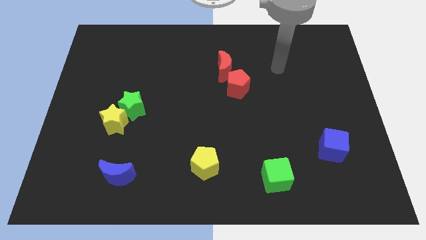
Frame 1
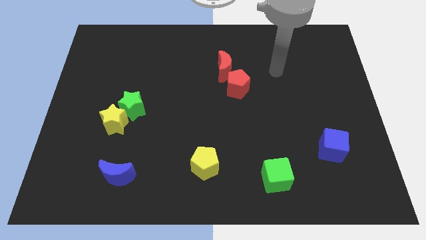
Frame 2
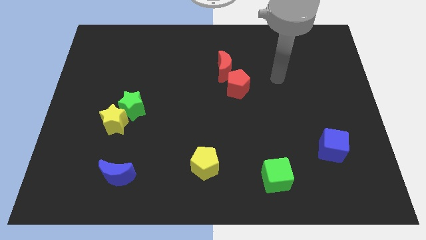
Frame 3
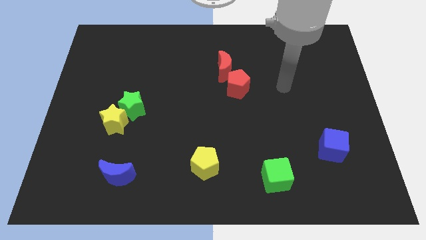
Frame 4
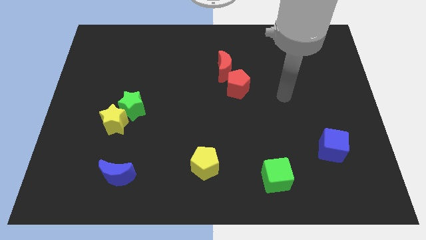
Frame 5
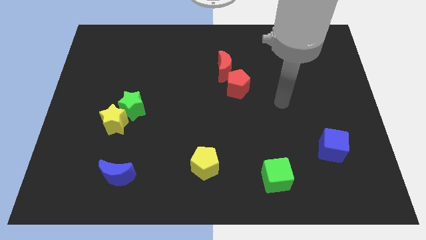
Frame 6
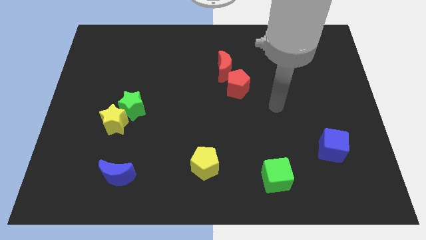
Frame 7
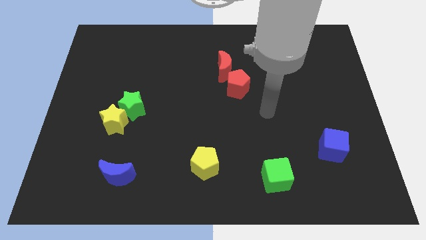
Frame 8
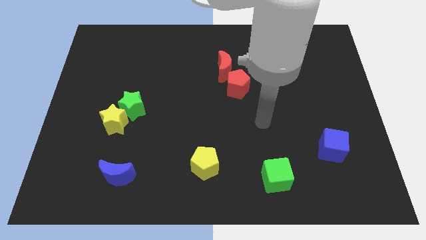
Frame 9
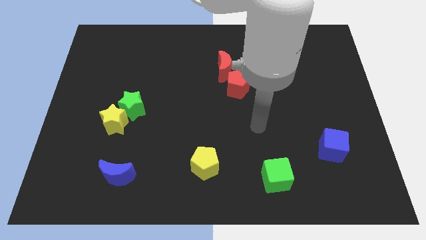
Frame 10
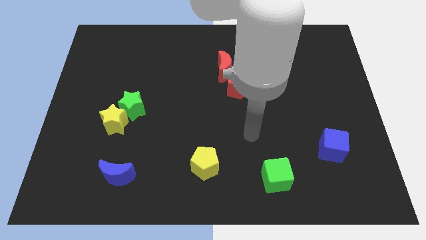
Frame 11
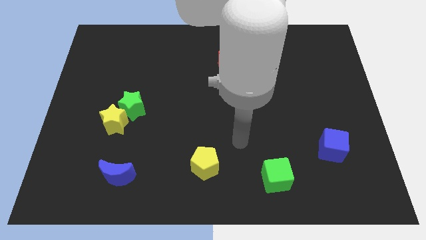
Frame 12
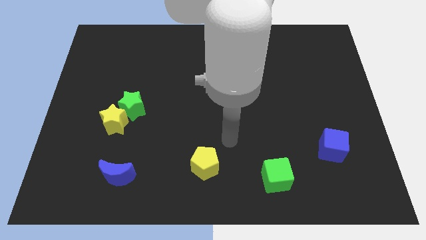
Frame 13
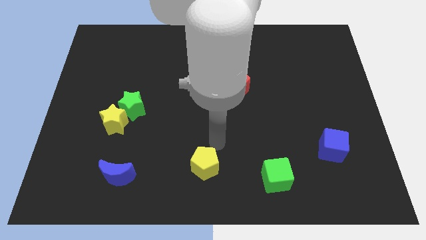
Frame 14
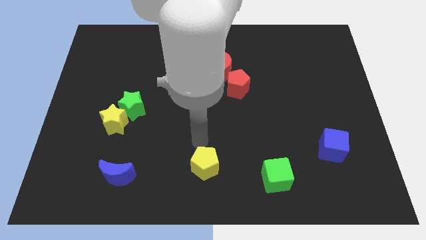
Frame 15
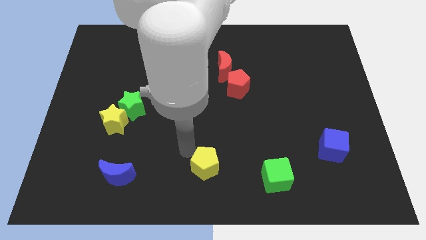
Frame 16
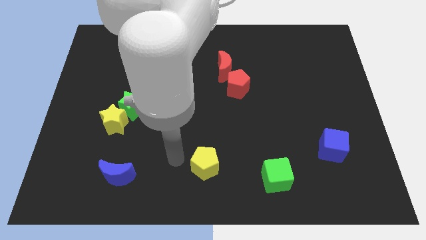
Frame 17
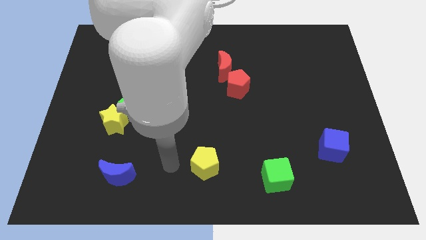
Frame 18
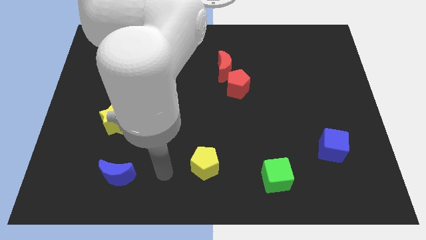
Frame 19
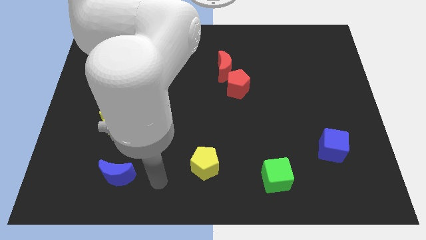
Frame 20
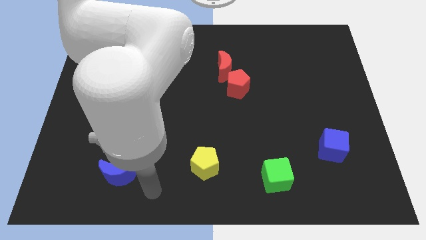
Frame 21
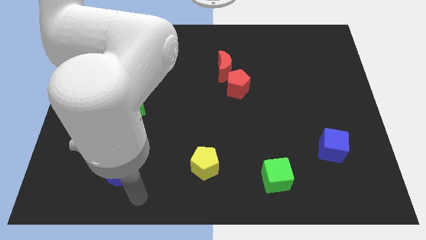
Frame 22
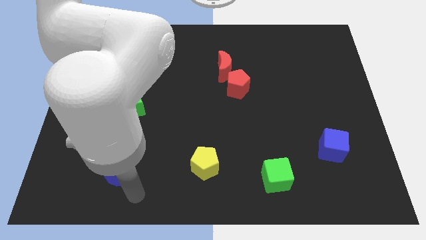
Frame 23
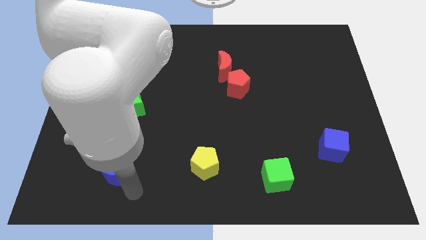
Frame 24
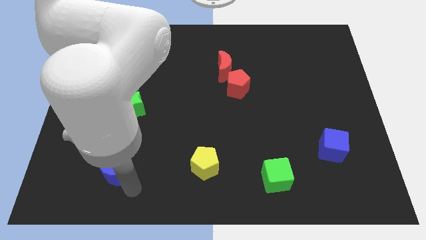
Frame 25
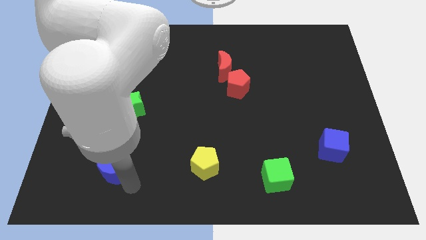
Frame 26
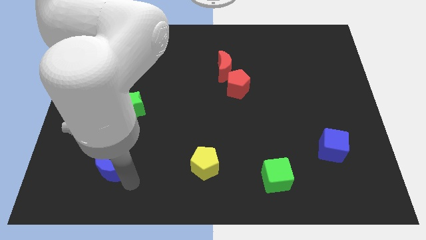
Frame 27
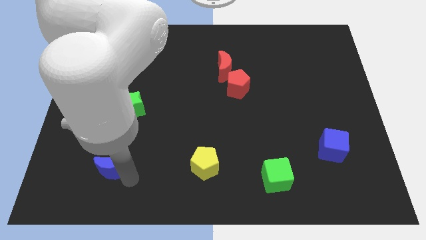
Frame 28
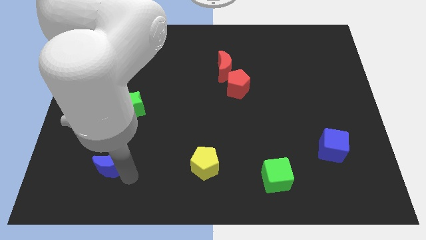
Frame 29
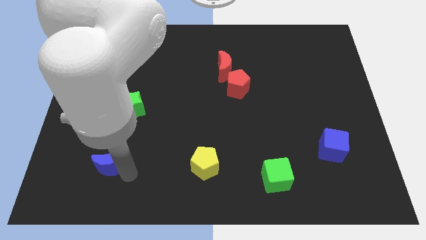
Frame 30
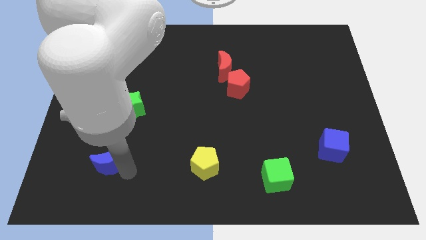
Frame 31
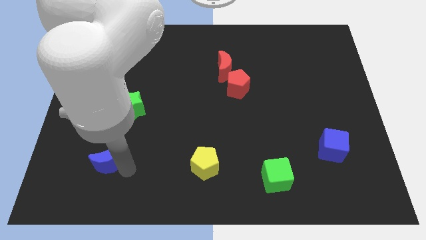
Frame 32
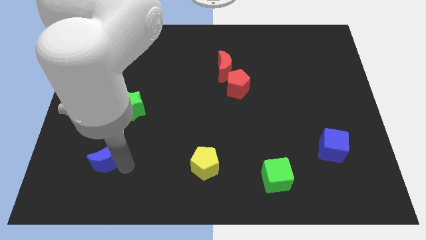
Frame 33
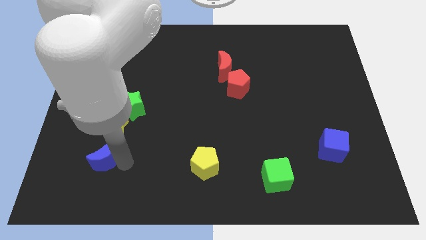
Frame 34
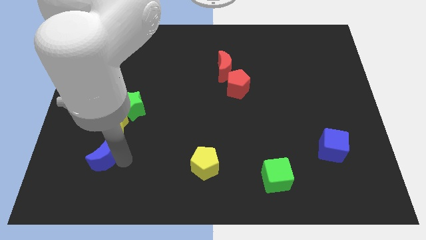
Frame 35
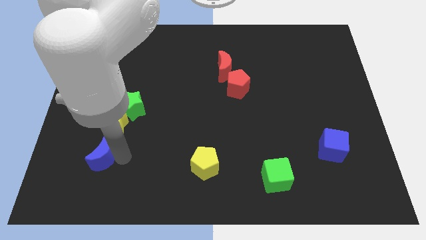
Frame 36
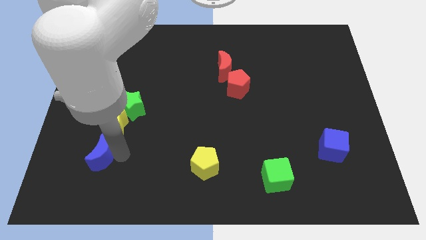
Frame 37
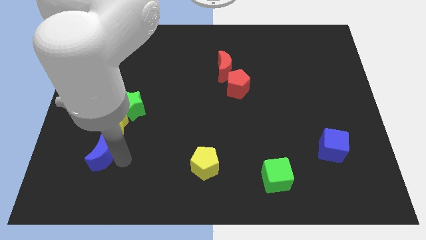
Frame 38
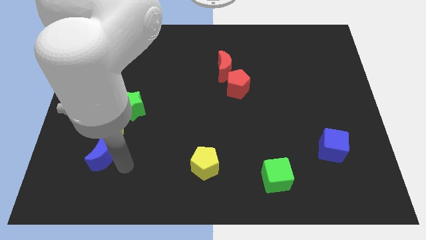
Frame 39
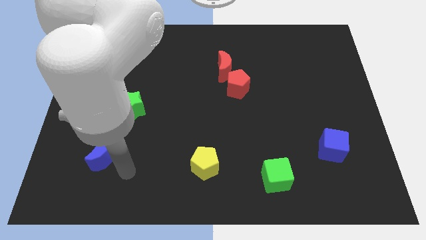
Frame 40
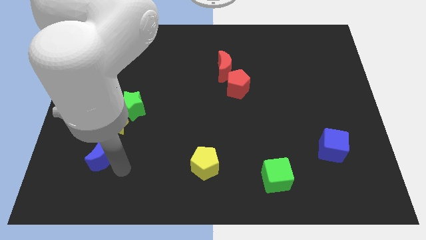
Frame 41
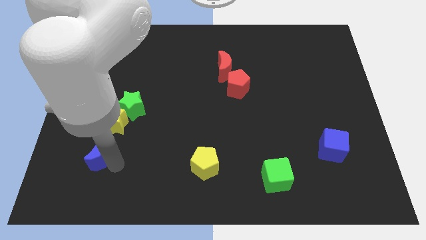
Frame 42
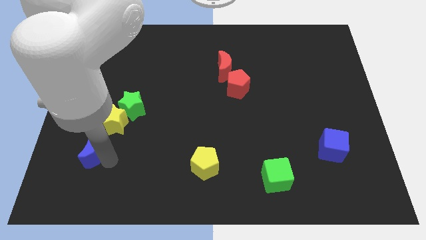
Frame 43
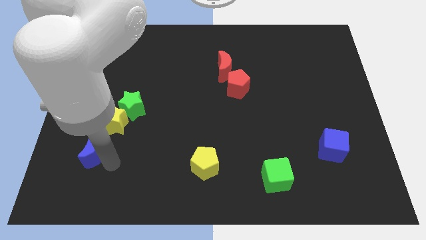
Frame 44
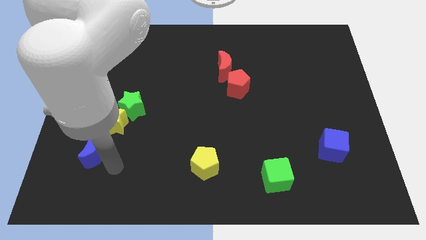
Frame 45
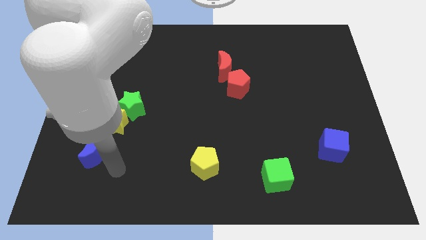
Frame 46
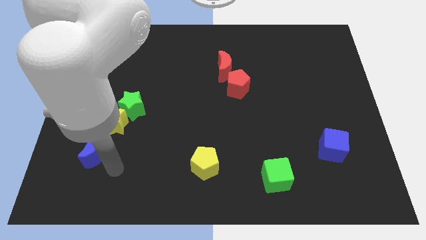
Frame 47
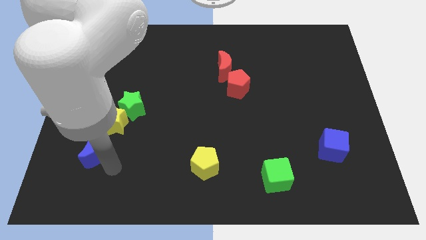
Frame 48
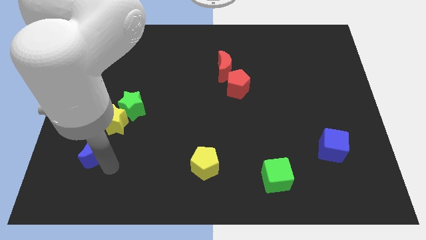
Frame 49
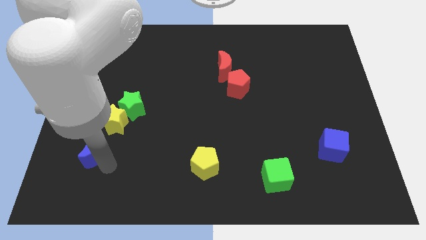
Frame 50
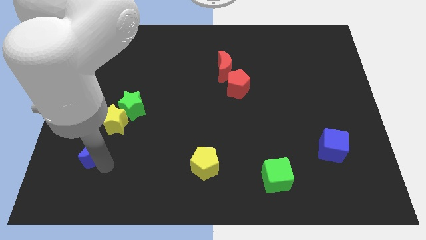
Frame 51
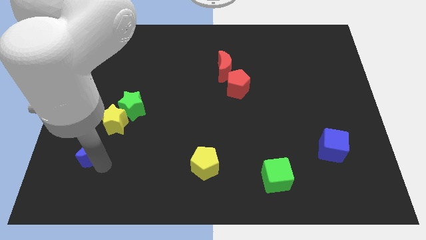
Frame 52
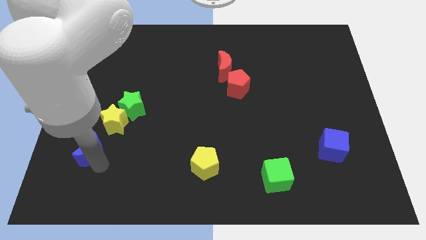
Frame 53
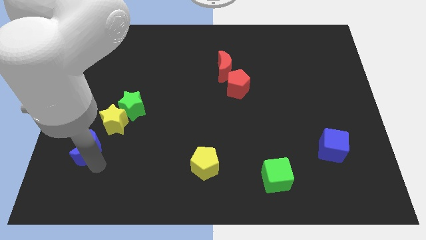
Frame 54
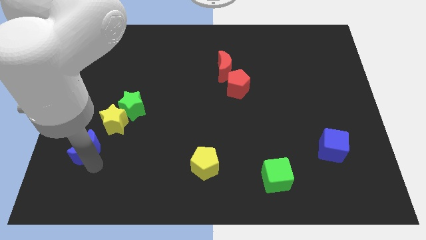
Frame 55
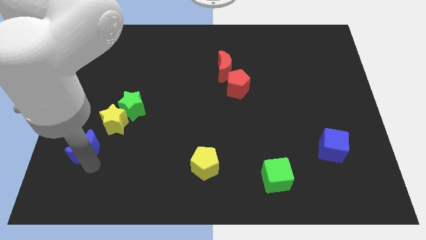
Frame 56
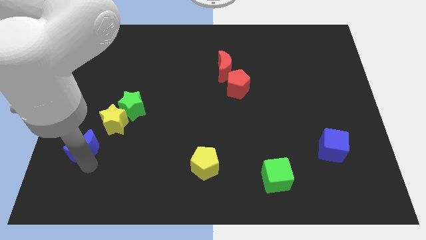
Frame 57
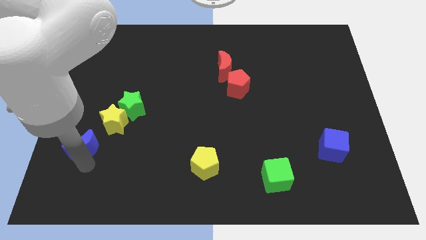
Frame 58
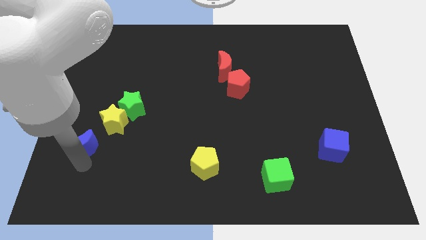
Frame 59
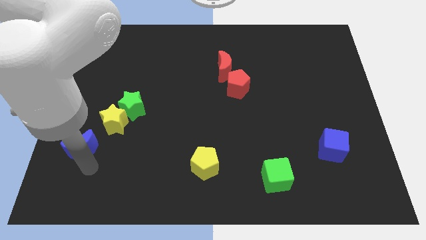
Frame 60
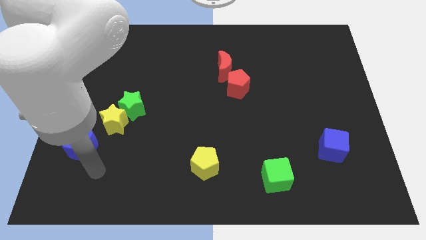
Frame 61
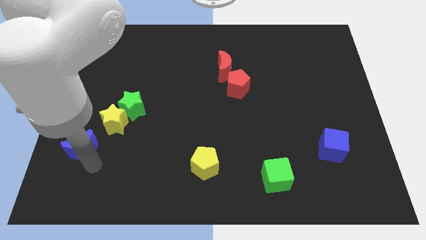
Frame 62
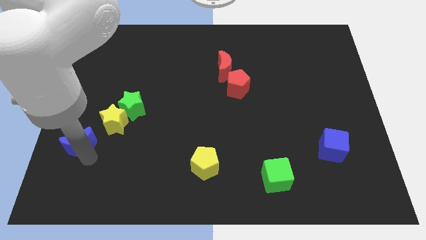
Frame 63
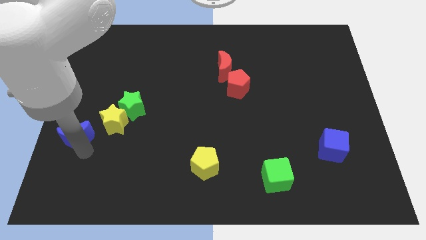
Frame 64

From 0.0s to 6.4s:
slide the blue moon to the left side of the board
